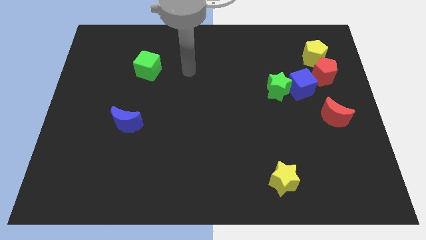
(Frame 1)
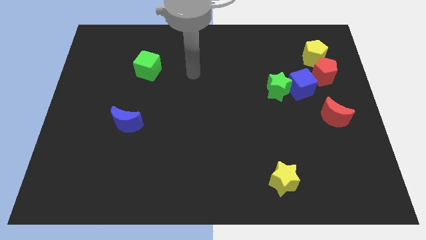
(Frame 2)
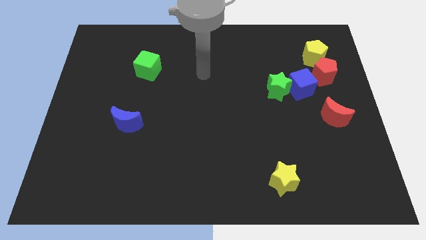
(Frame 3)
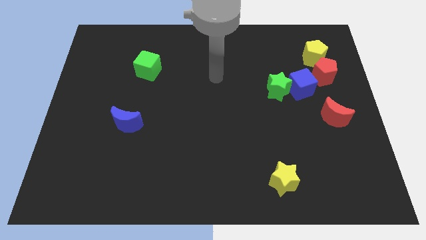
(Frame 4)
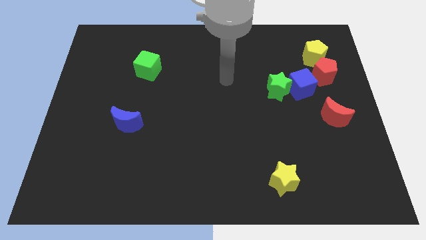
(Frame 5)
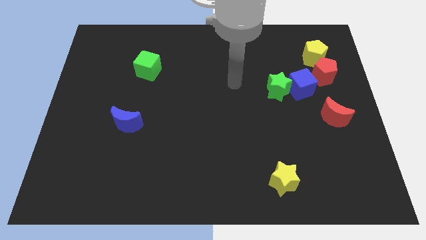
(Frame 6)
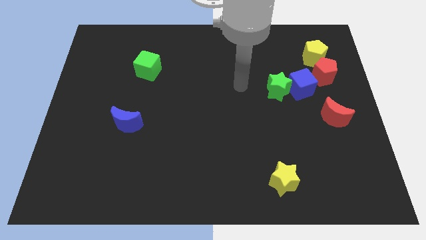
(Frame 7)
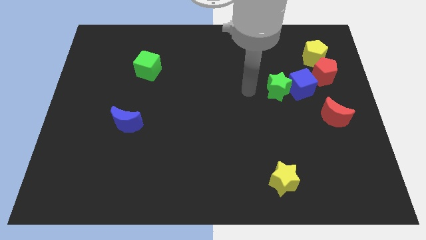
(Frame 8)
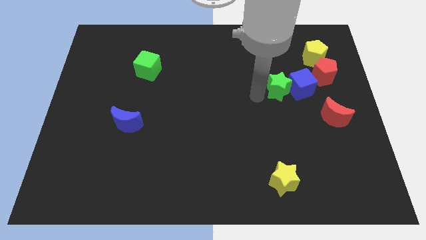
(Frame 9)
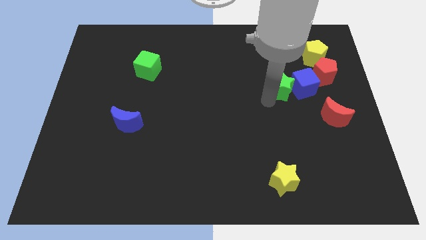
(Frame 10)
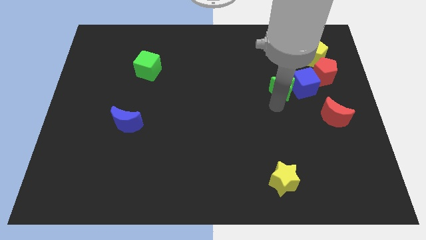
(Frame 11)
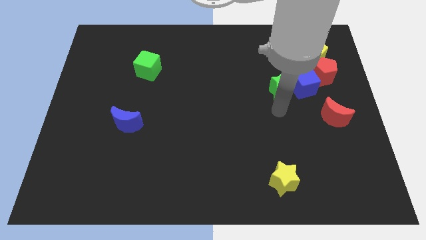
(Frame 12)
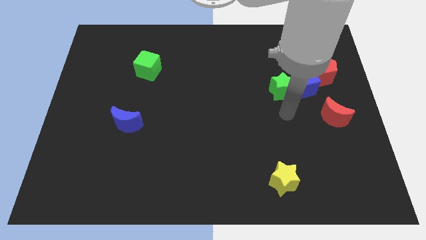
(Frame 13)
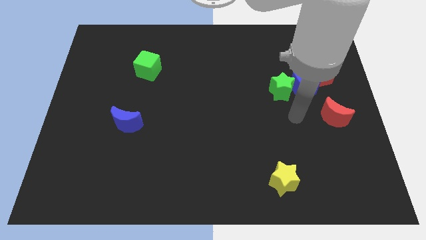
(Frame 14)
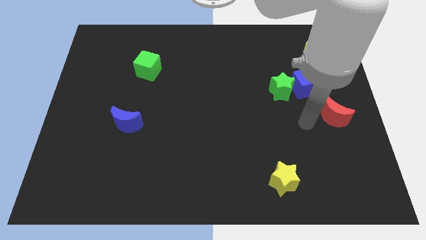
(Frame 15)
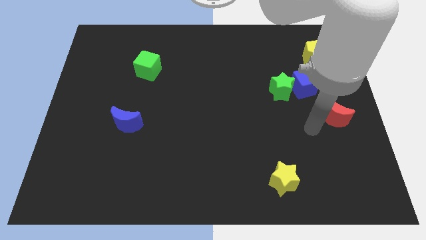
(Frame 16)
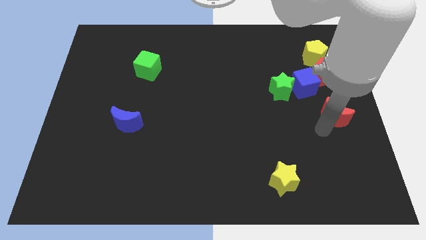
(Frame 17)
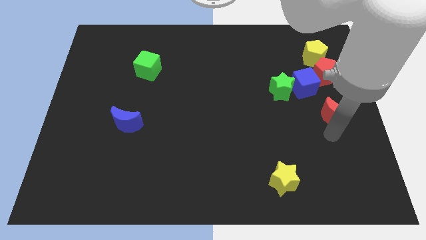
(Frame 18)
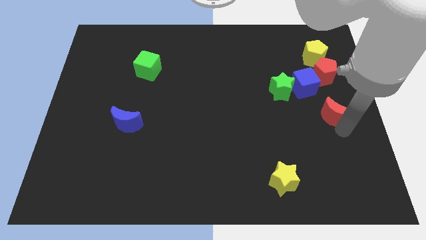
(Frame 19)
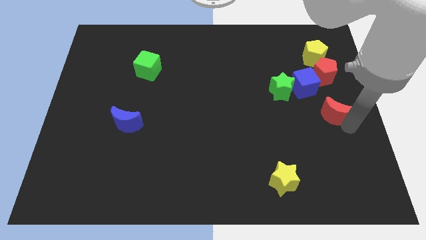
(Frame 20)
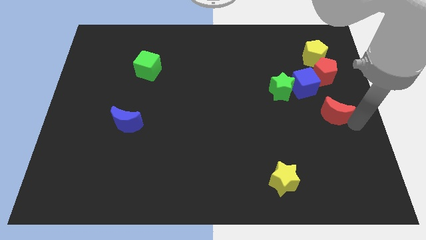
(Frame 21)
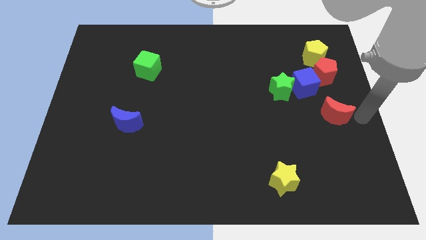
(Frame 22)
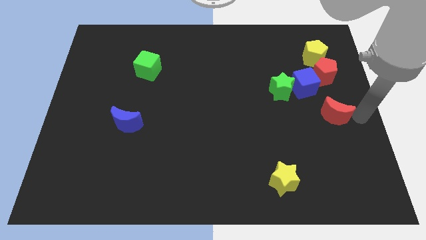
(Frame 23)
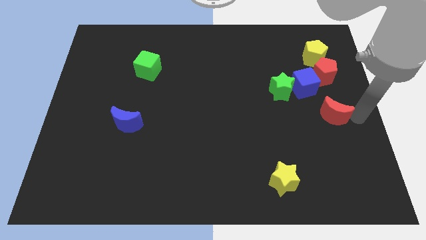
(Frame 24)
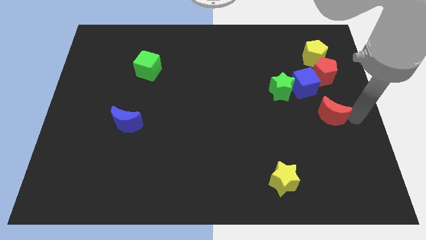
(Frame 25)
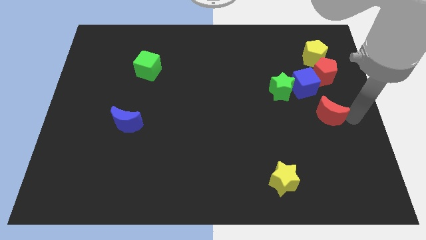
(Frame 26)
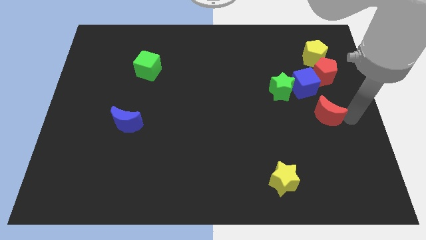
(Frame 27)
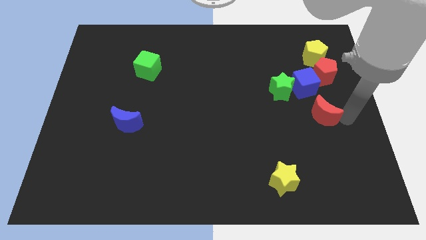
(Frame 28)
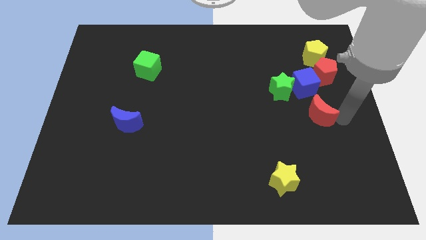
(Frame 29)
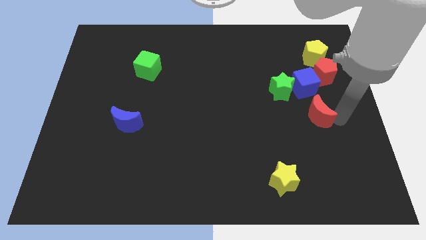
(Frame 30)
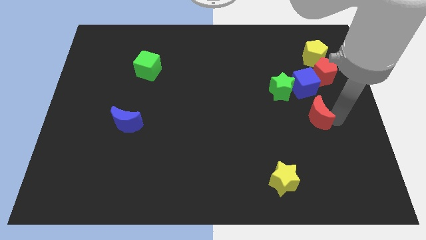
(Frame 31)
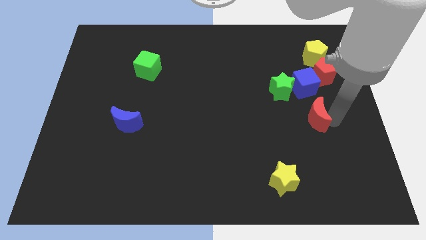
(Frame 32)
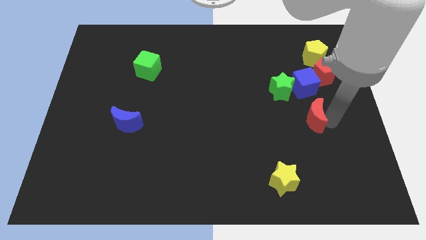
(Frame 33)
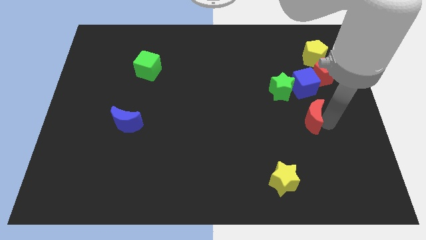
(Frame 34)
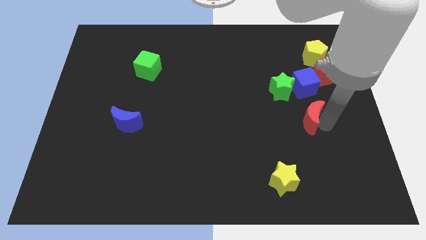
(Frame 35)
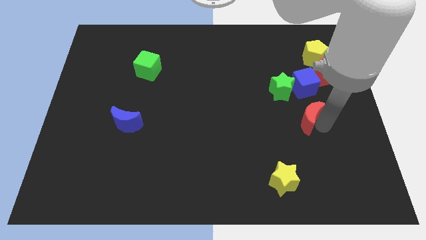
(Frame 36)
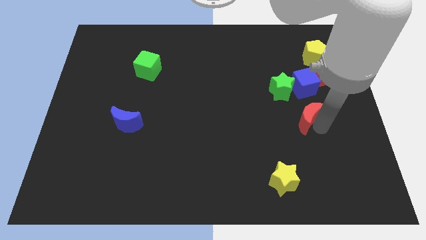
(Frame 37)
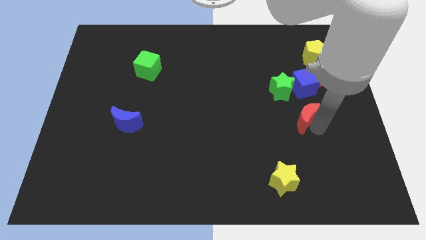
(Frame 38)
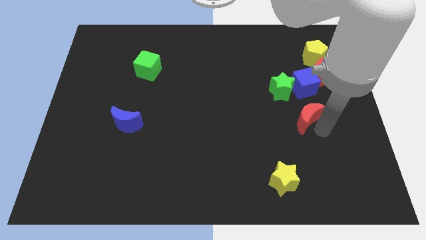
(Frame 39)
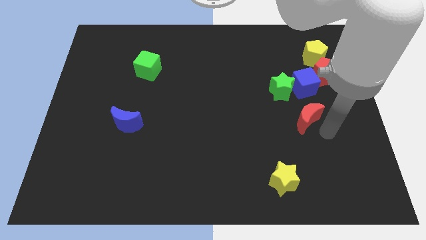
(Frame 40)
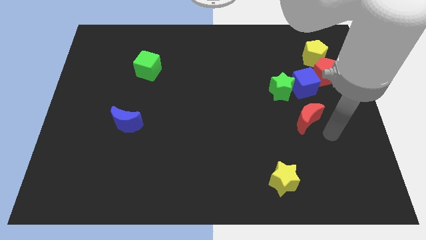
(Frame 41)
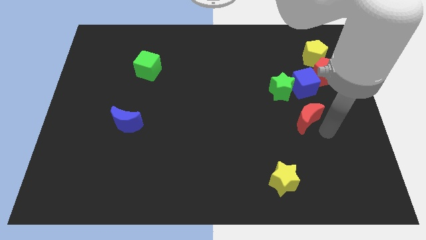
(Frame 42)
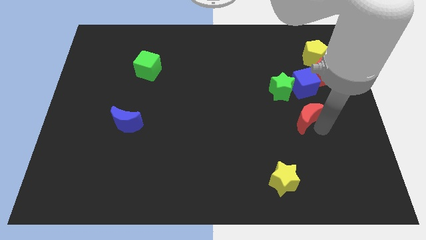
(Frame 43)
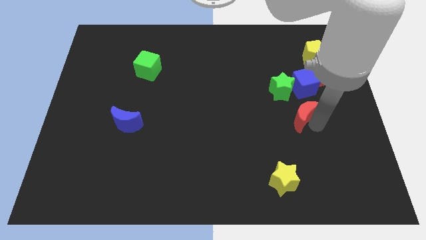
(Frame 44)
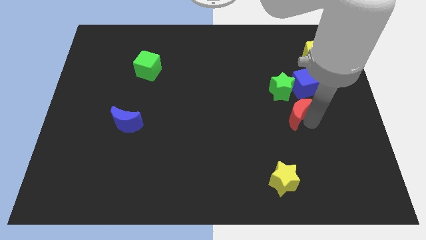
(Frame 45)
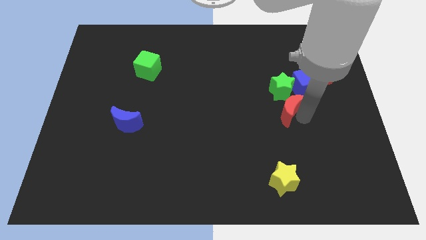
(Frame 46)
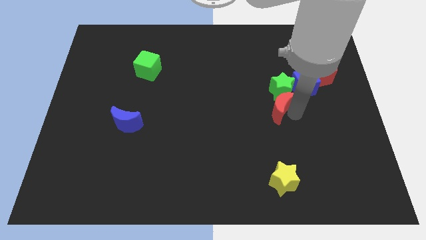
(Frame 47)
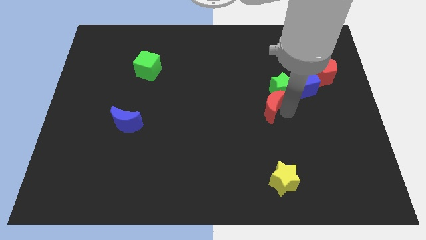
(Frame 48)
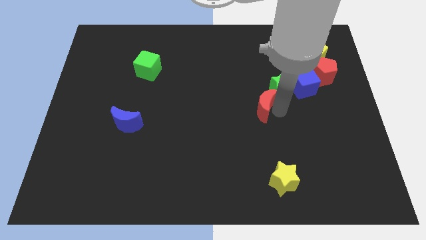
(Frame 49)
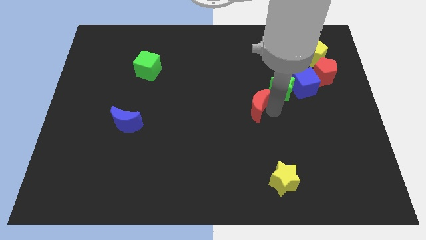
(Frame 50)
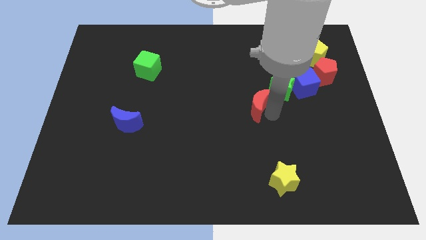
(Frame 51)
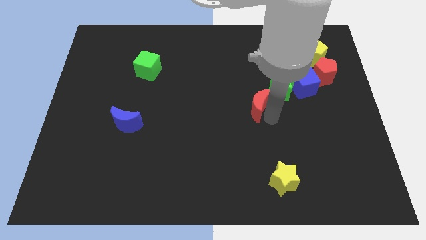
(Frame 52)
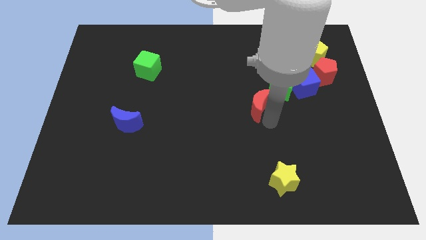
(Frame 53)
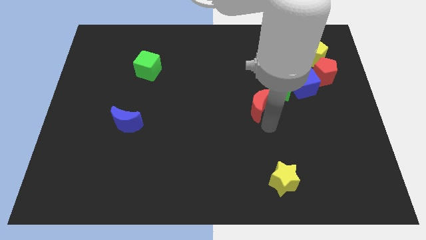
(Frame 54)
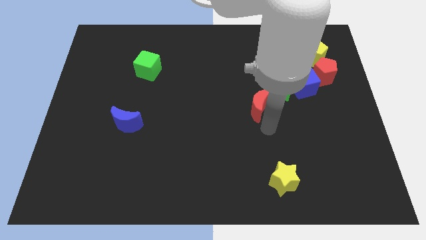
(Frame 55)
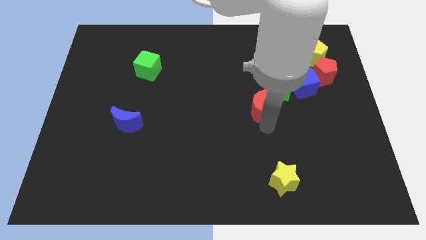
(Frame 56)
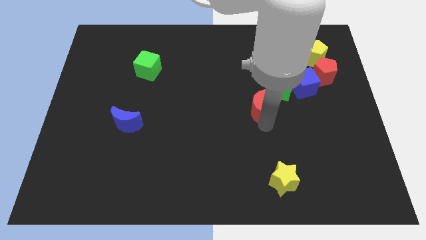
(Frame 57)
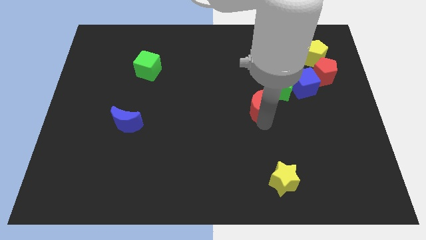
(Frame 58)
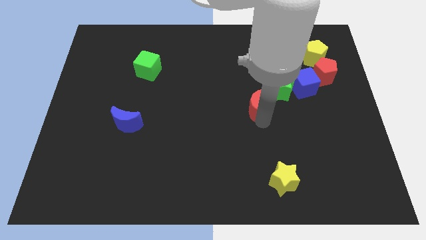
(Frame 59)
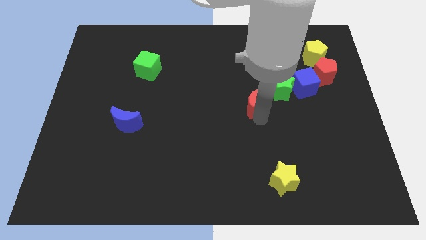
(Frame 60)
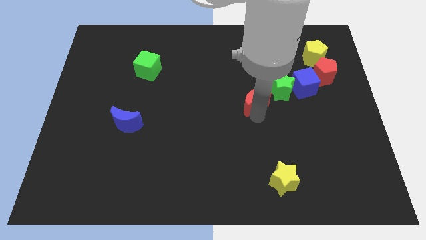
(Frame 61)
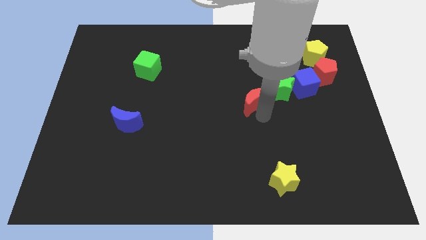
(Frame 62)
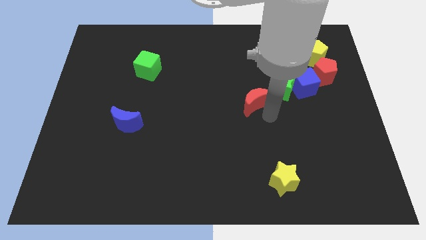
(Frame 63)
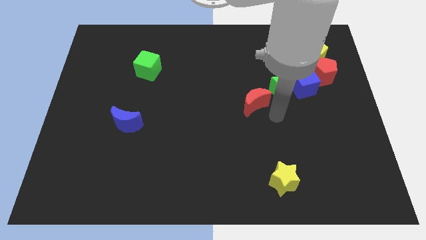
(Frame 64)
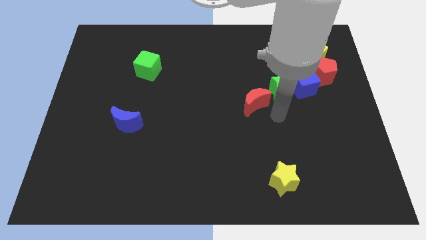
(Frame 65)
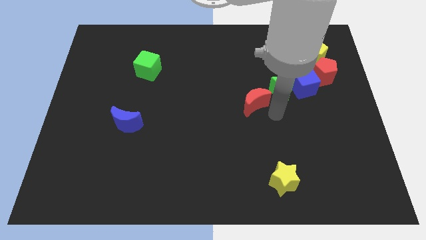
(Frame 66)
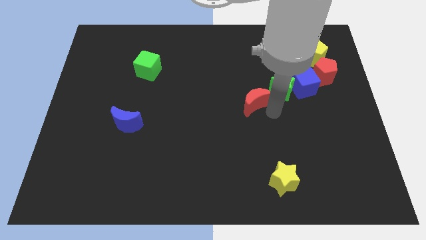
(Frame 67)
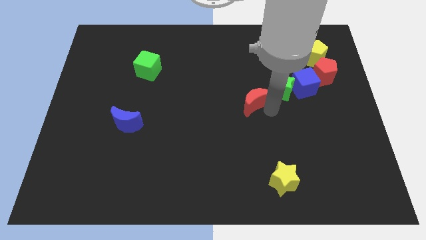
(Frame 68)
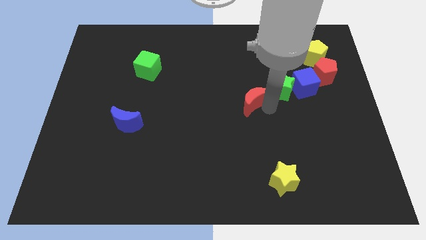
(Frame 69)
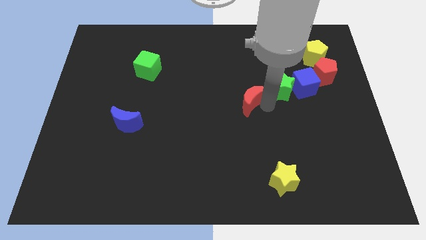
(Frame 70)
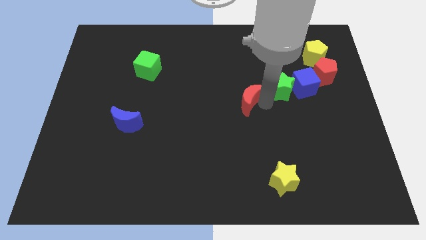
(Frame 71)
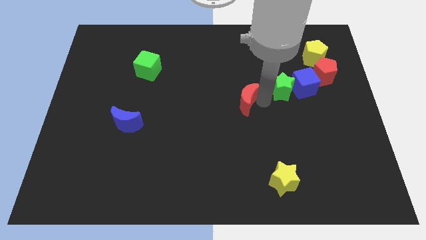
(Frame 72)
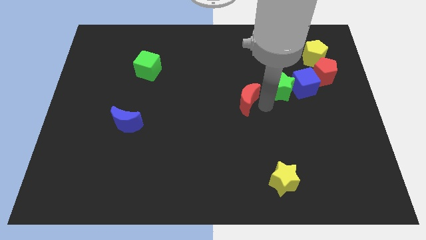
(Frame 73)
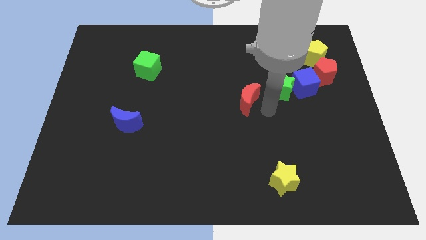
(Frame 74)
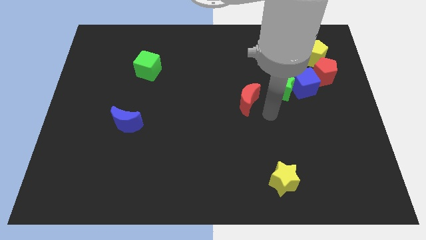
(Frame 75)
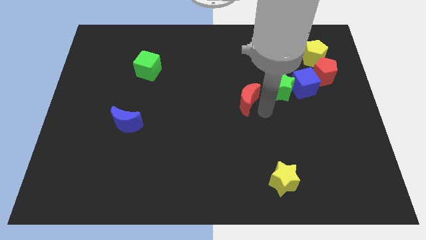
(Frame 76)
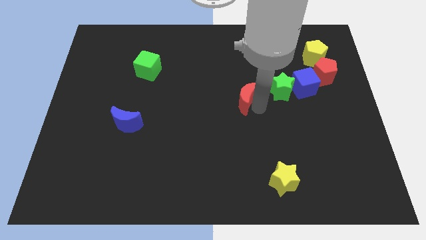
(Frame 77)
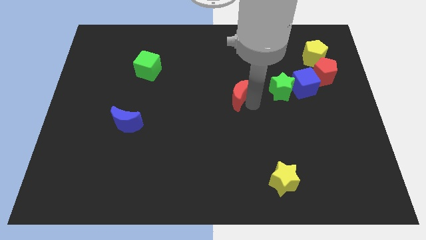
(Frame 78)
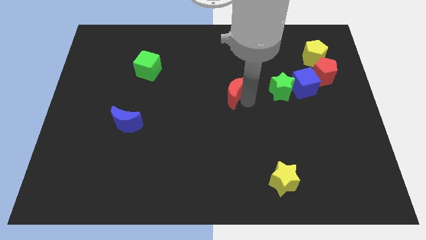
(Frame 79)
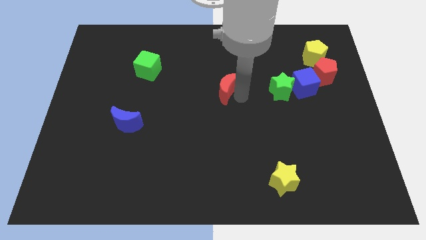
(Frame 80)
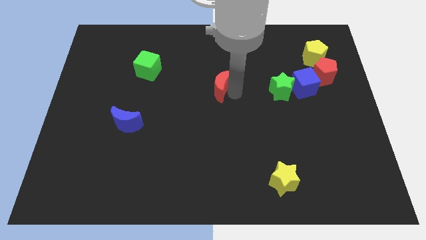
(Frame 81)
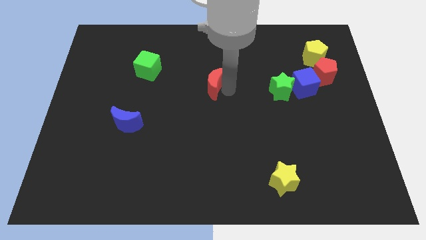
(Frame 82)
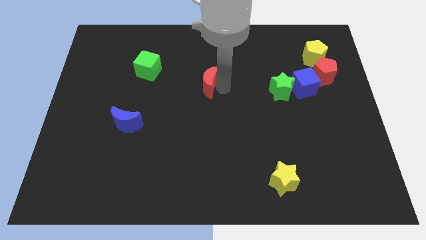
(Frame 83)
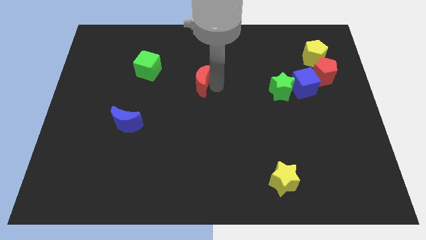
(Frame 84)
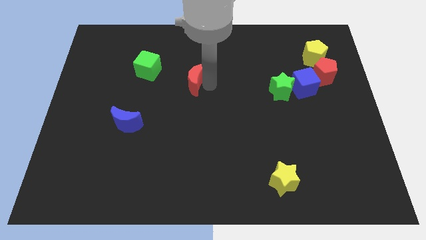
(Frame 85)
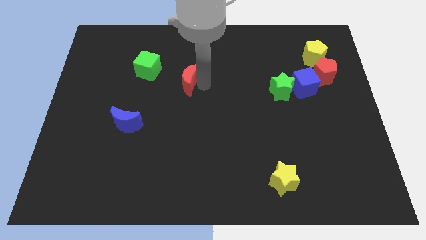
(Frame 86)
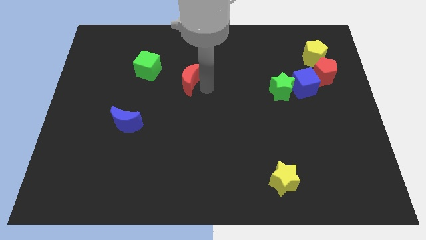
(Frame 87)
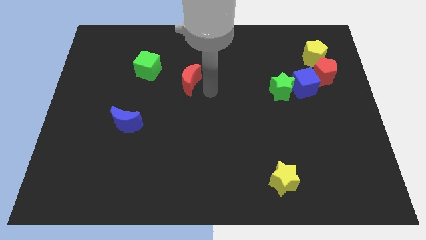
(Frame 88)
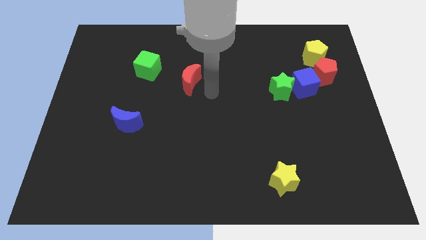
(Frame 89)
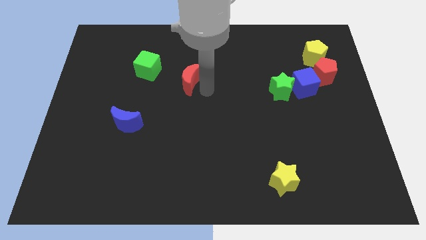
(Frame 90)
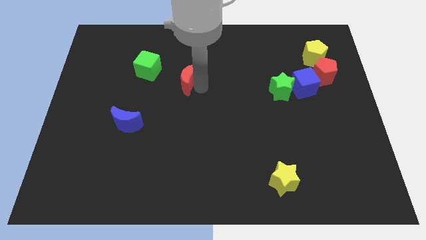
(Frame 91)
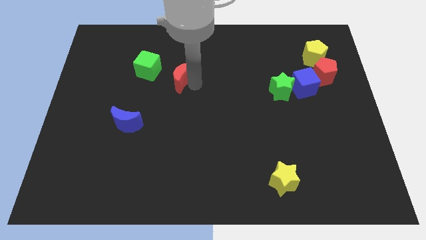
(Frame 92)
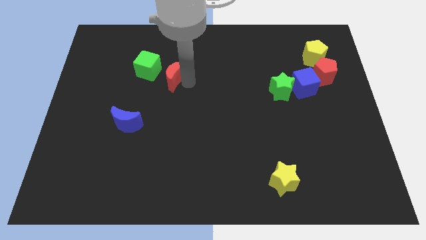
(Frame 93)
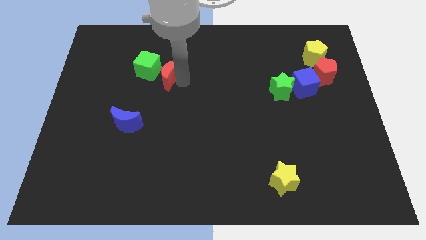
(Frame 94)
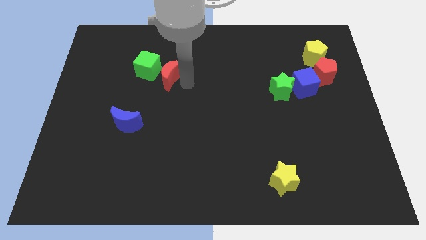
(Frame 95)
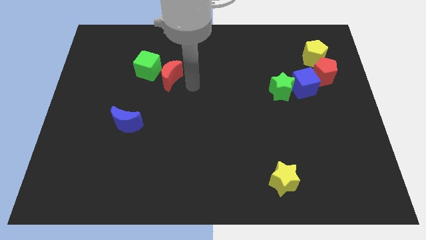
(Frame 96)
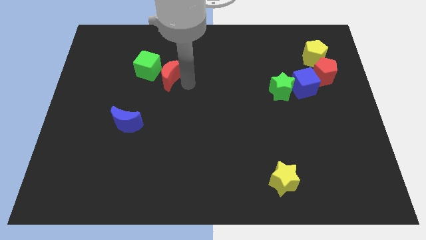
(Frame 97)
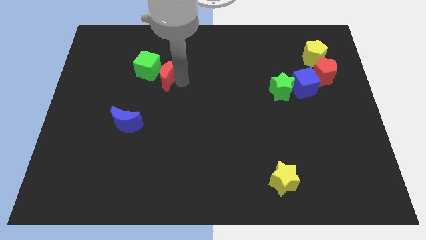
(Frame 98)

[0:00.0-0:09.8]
move the red moon close to the green cube
